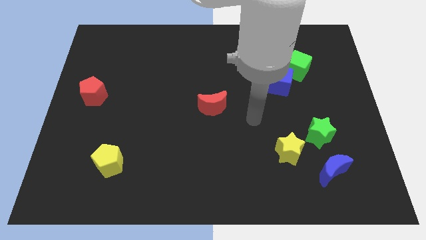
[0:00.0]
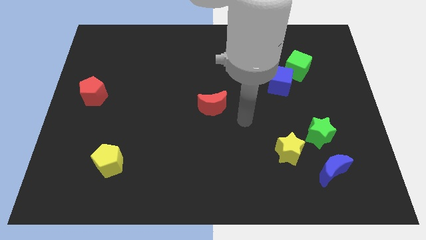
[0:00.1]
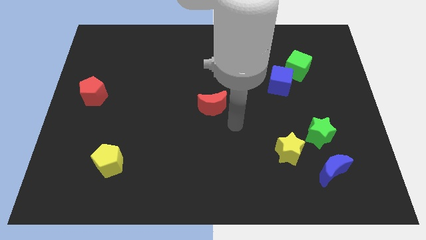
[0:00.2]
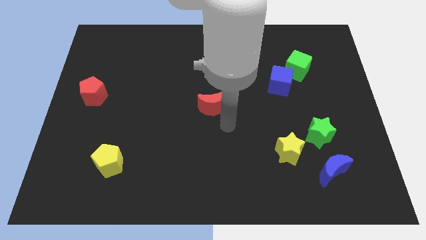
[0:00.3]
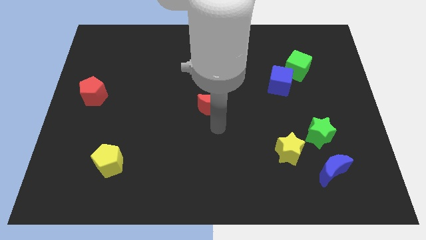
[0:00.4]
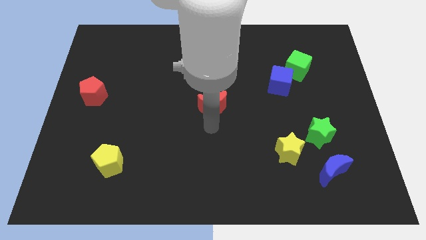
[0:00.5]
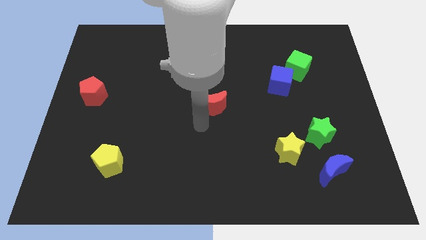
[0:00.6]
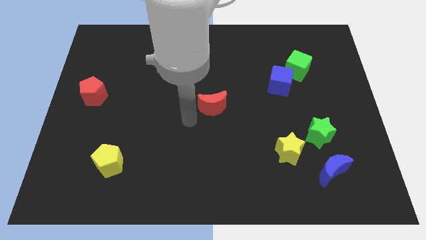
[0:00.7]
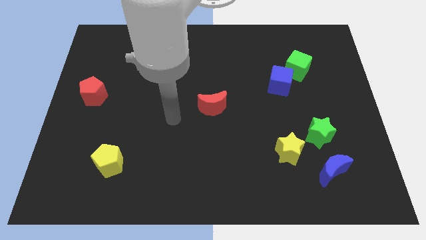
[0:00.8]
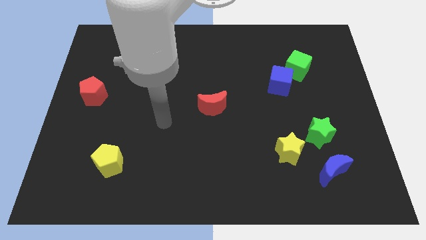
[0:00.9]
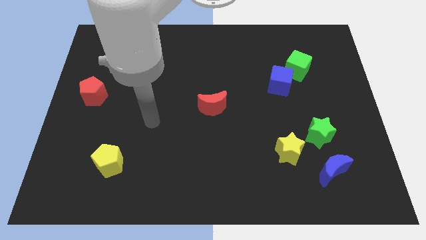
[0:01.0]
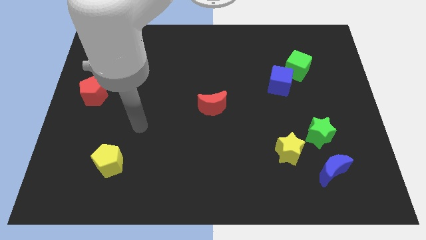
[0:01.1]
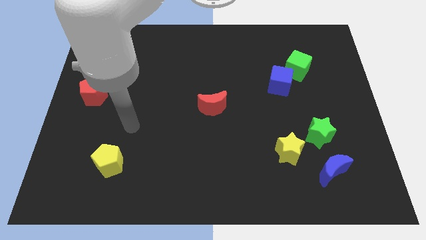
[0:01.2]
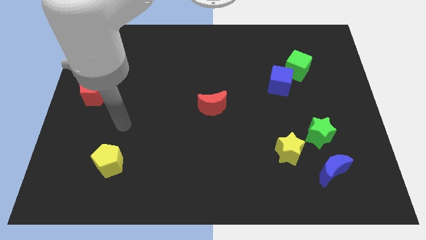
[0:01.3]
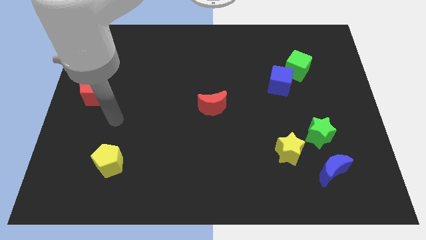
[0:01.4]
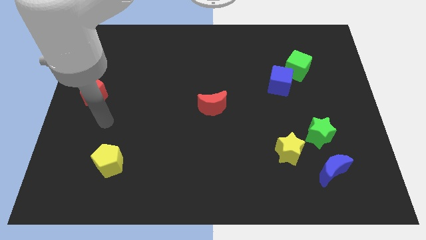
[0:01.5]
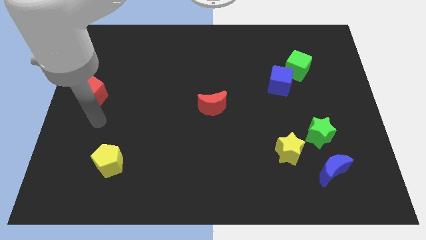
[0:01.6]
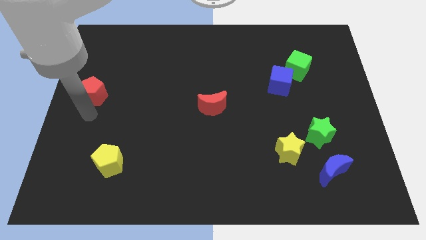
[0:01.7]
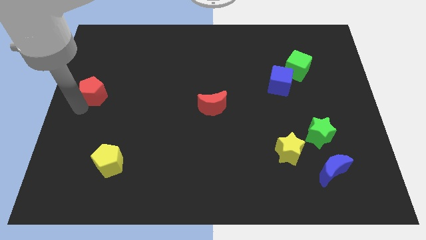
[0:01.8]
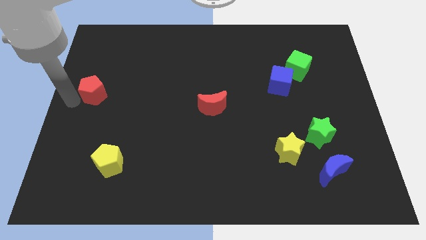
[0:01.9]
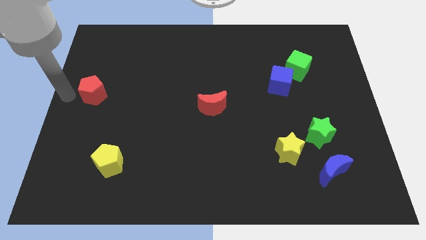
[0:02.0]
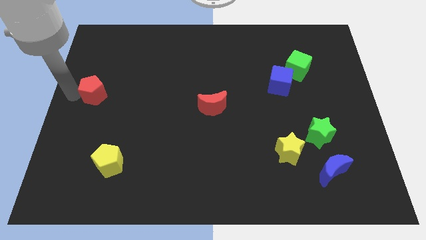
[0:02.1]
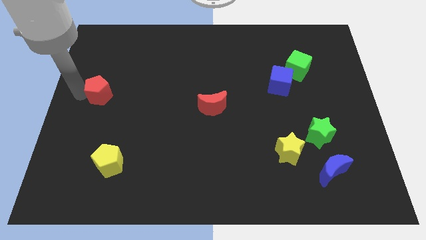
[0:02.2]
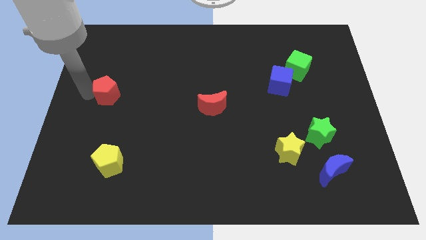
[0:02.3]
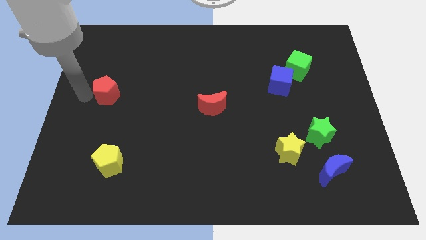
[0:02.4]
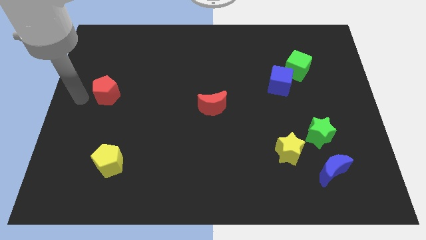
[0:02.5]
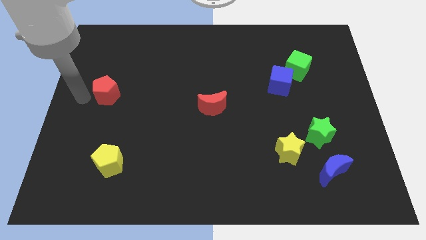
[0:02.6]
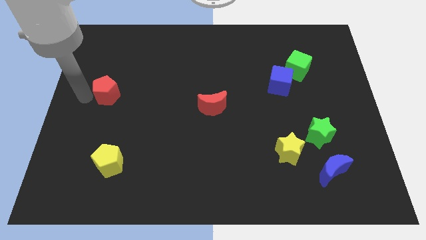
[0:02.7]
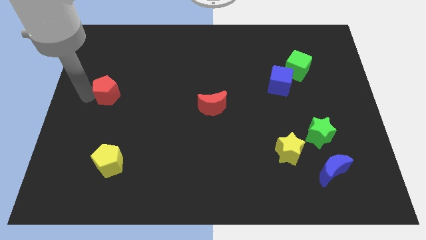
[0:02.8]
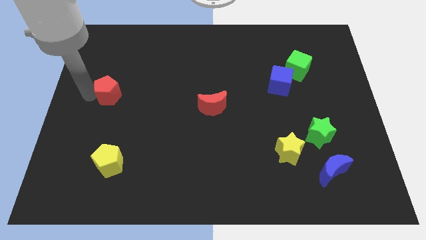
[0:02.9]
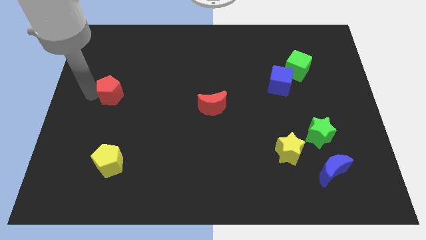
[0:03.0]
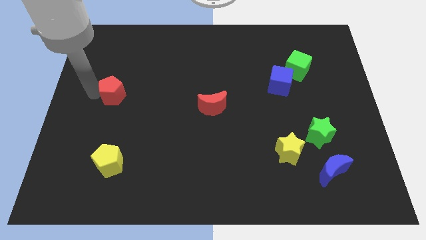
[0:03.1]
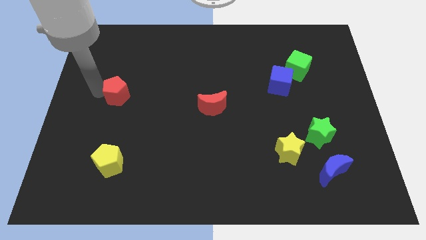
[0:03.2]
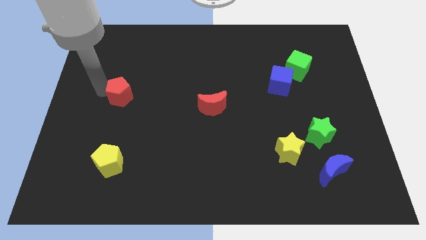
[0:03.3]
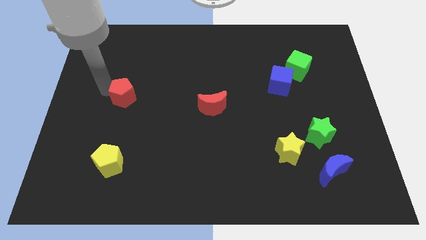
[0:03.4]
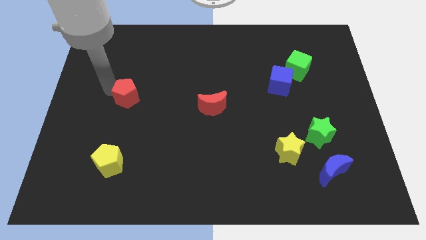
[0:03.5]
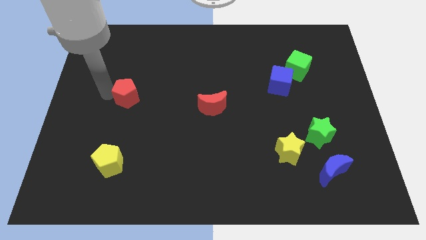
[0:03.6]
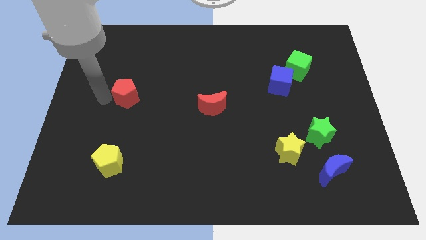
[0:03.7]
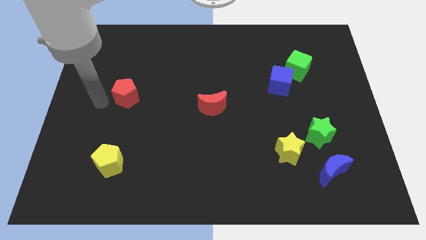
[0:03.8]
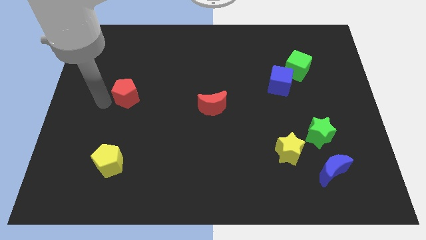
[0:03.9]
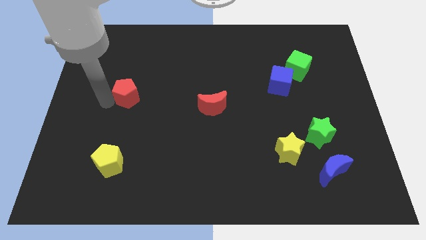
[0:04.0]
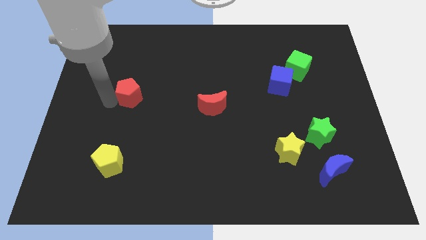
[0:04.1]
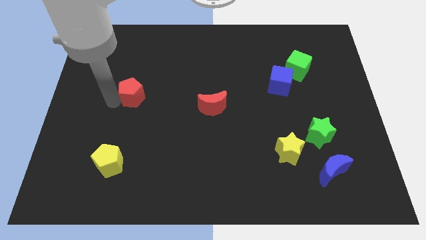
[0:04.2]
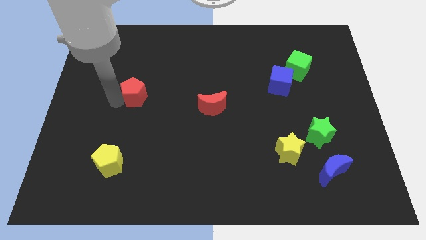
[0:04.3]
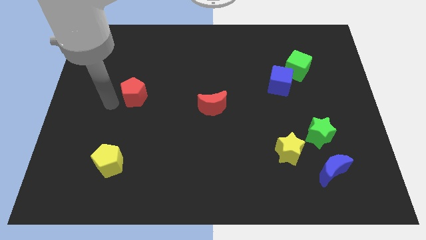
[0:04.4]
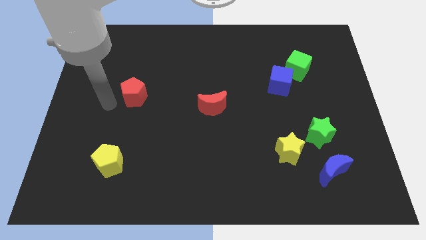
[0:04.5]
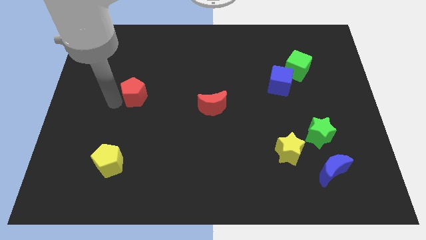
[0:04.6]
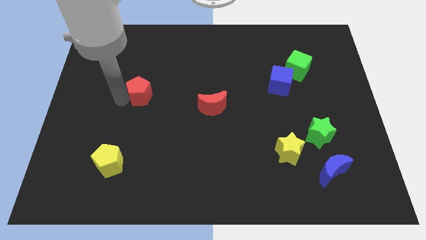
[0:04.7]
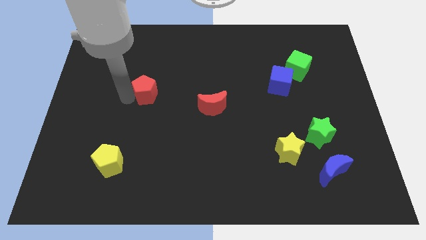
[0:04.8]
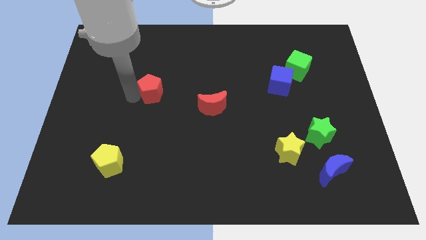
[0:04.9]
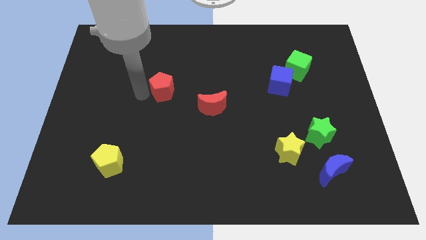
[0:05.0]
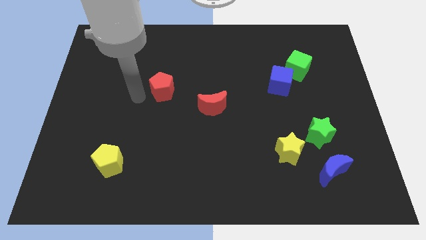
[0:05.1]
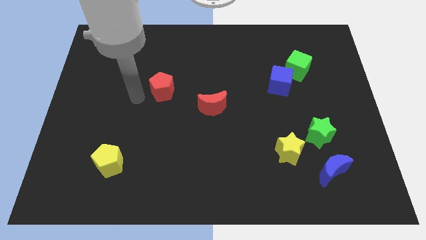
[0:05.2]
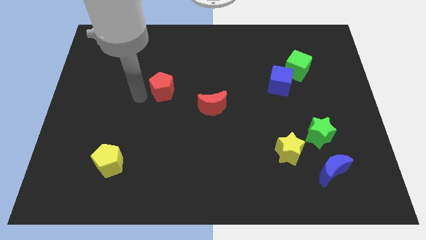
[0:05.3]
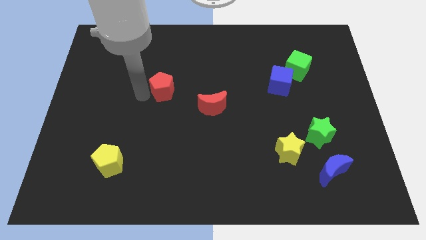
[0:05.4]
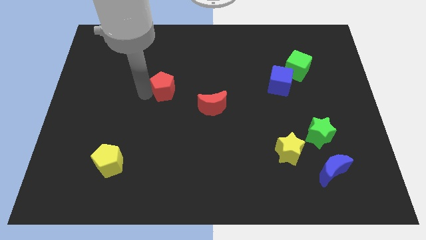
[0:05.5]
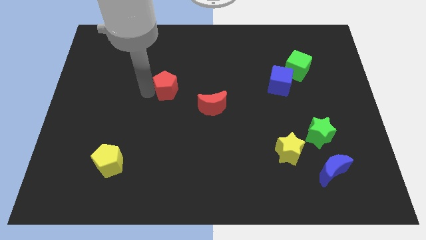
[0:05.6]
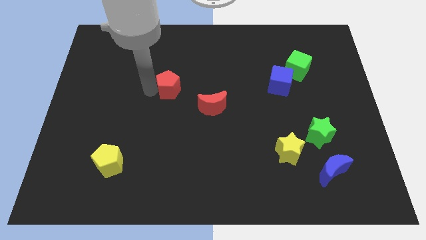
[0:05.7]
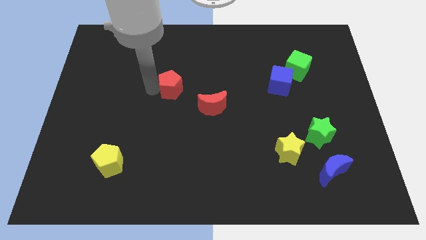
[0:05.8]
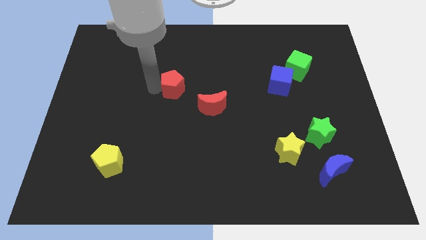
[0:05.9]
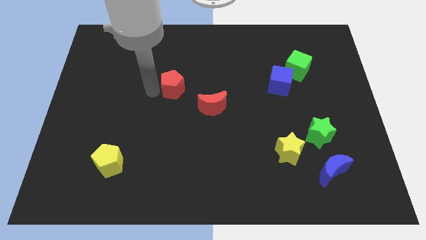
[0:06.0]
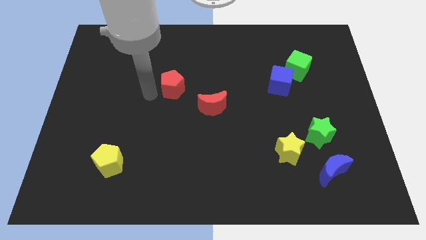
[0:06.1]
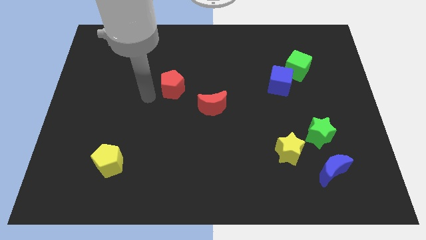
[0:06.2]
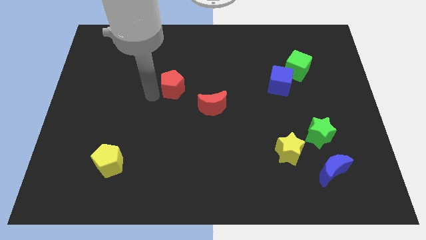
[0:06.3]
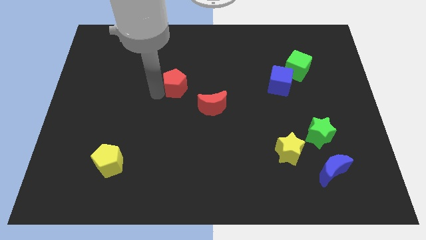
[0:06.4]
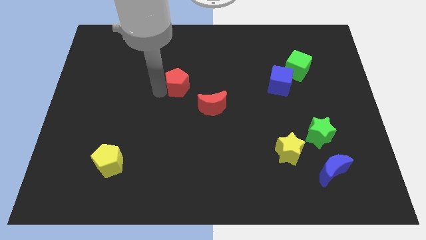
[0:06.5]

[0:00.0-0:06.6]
slide the red pentagon to the right

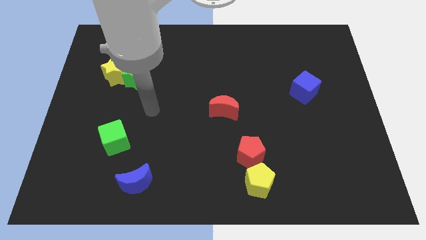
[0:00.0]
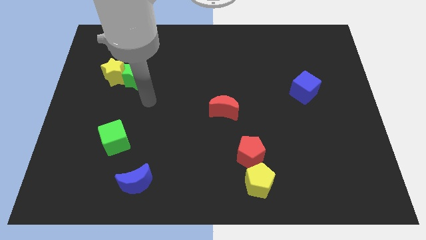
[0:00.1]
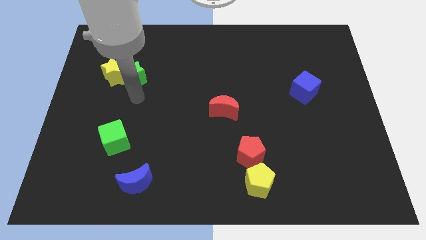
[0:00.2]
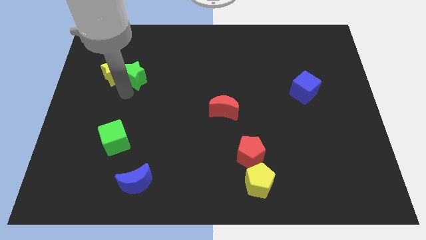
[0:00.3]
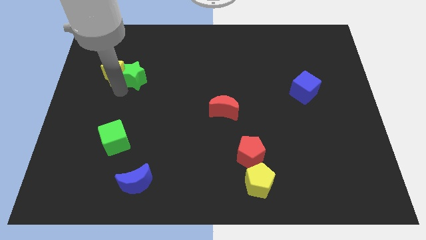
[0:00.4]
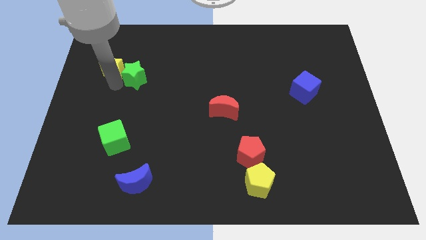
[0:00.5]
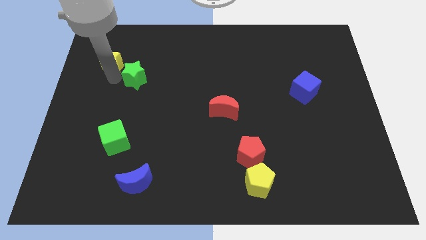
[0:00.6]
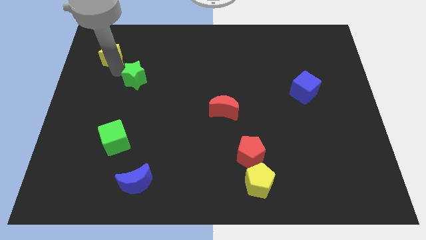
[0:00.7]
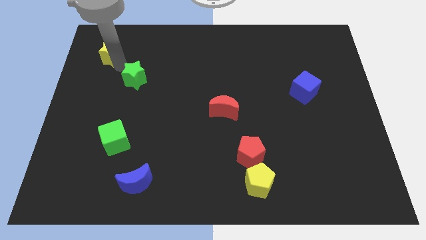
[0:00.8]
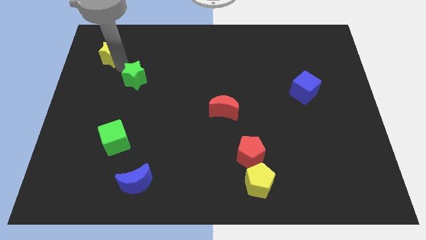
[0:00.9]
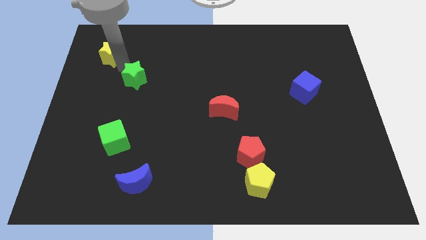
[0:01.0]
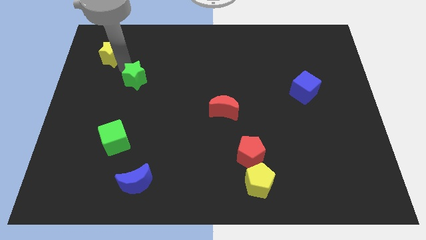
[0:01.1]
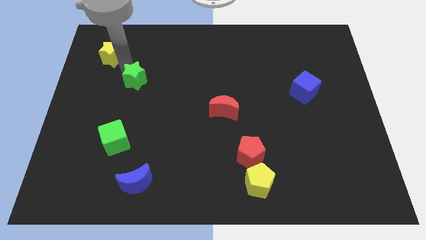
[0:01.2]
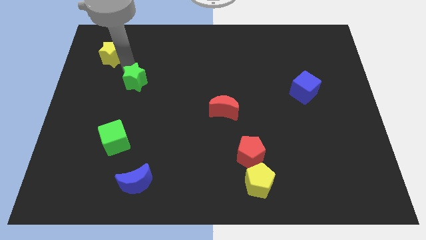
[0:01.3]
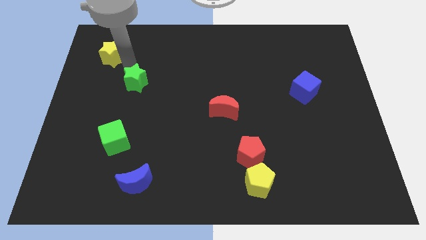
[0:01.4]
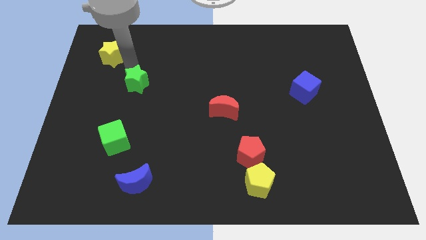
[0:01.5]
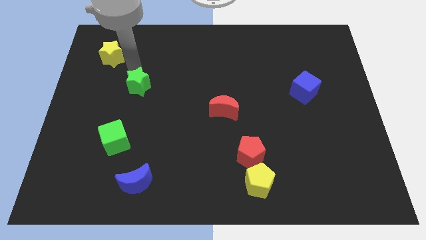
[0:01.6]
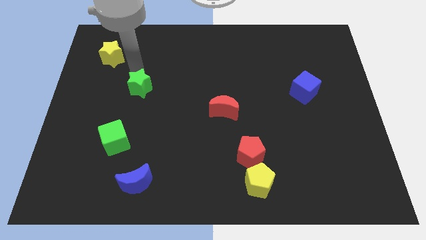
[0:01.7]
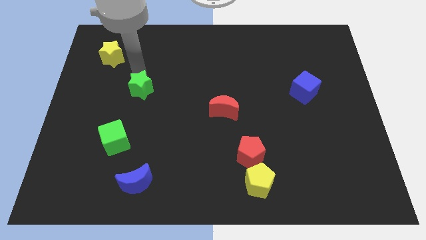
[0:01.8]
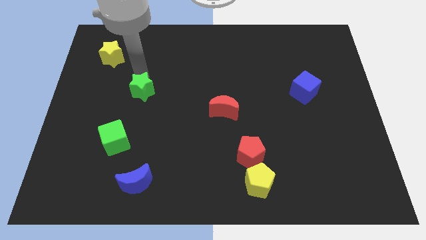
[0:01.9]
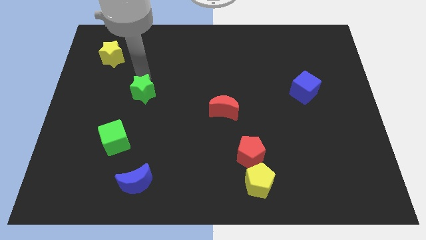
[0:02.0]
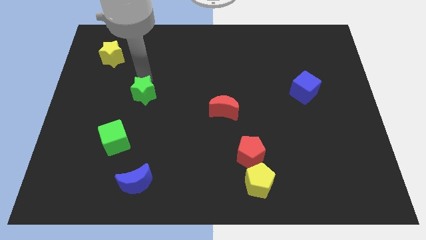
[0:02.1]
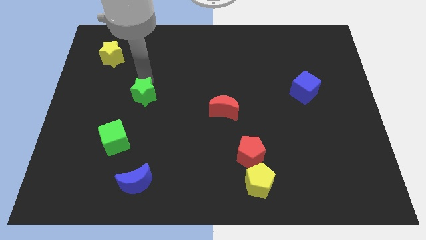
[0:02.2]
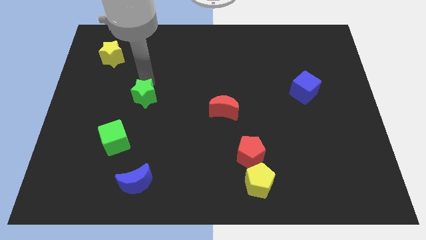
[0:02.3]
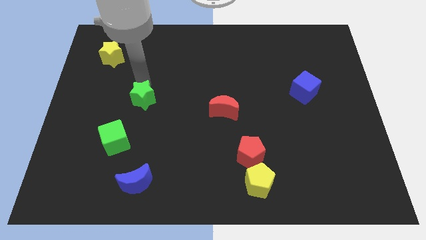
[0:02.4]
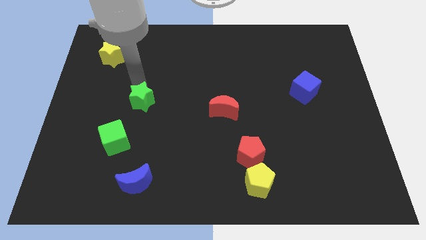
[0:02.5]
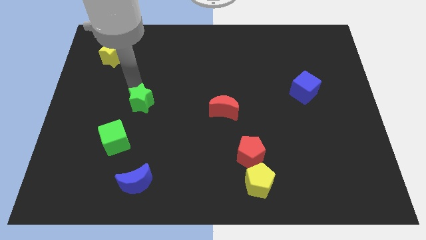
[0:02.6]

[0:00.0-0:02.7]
slightly slide the green star diagonally down and to the right
